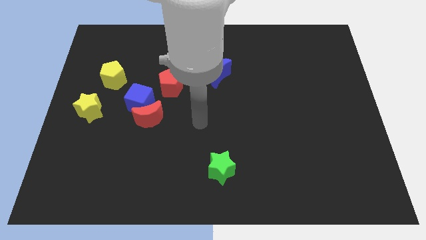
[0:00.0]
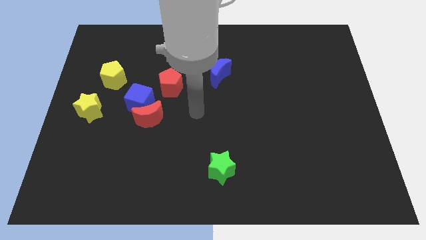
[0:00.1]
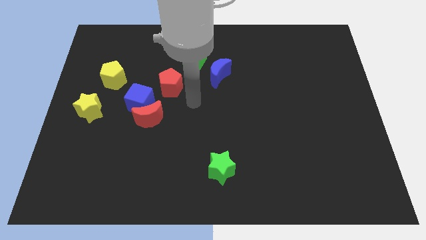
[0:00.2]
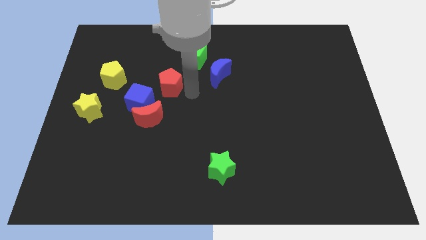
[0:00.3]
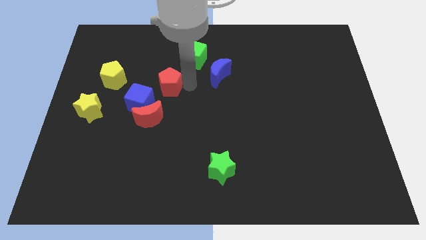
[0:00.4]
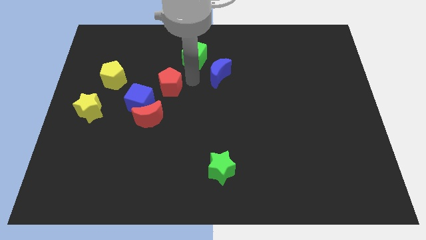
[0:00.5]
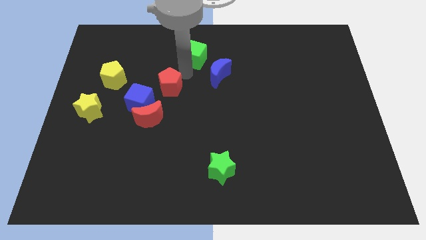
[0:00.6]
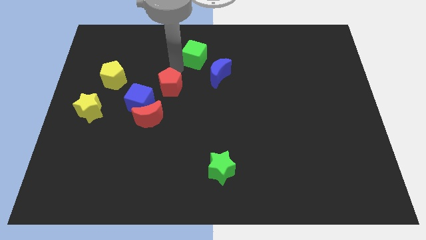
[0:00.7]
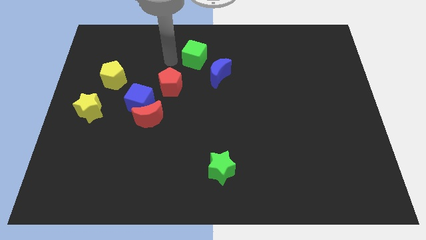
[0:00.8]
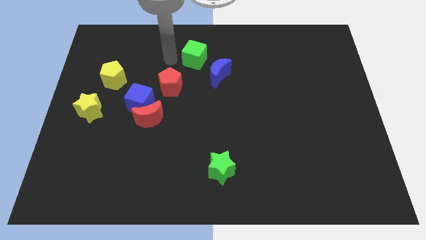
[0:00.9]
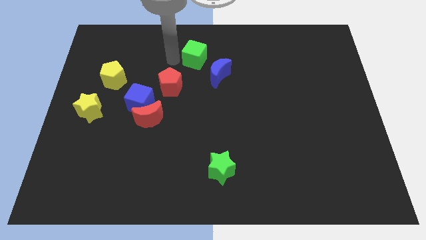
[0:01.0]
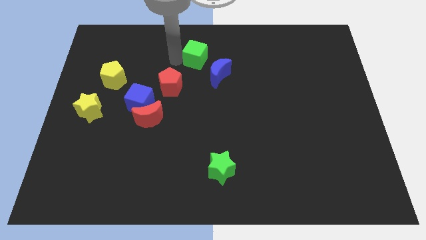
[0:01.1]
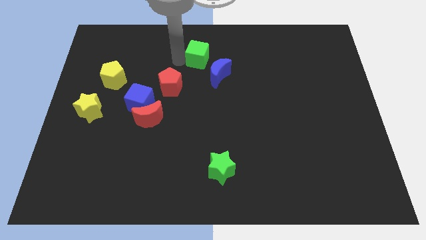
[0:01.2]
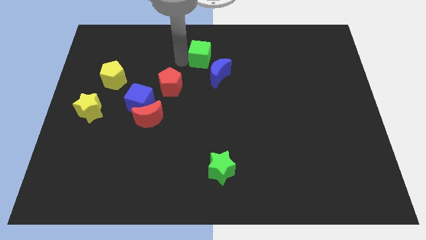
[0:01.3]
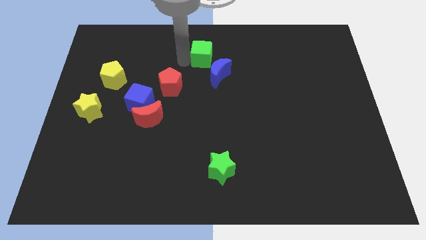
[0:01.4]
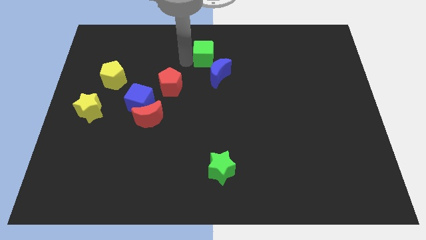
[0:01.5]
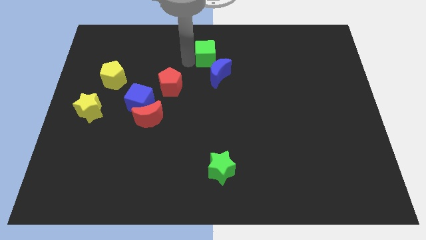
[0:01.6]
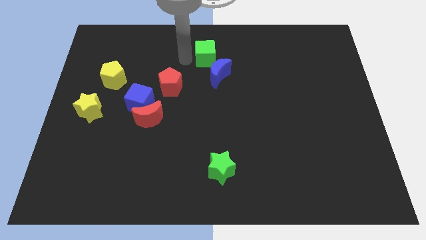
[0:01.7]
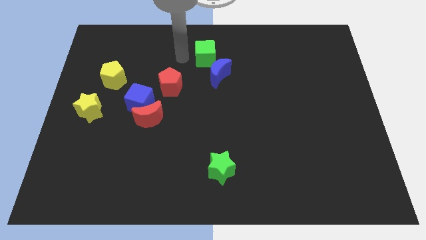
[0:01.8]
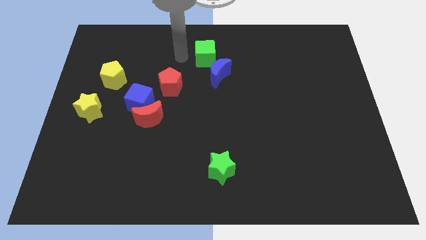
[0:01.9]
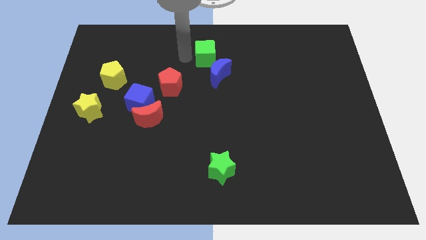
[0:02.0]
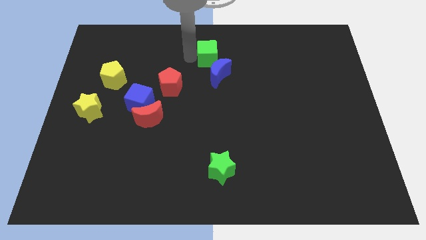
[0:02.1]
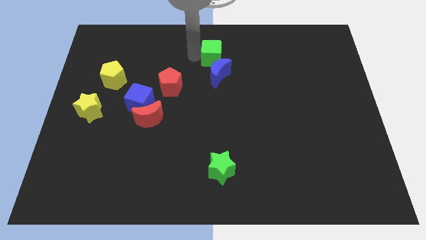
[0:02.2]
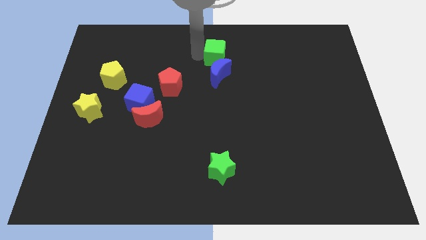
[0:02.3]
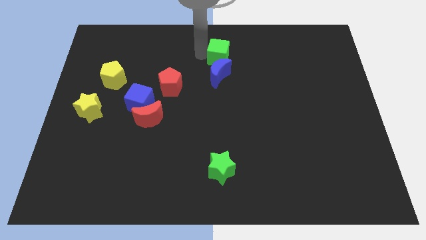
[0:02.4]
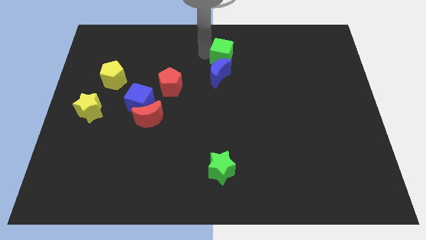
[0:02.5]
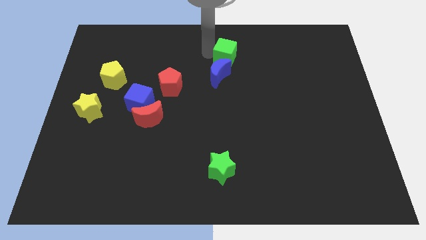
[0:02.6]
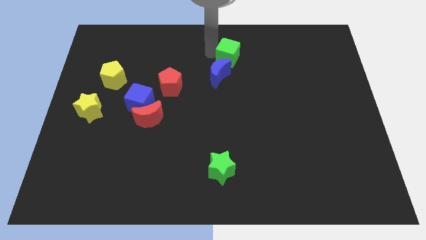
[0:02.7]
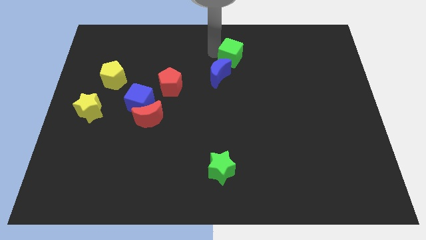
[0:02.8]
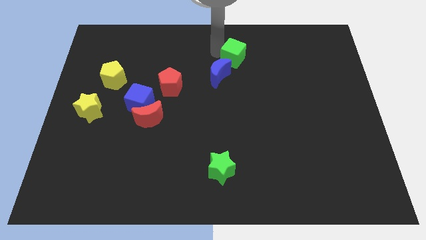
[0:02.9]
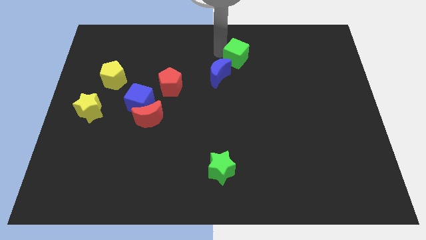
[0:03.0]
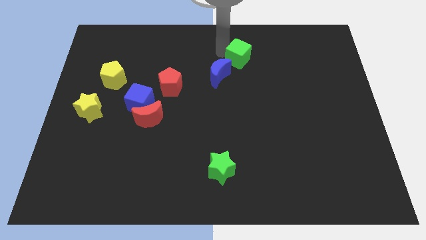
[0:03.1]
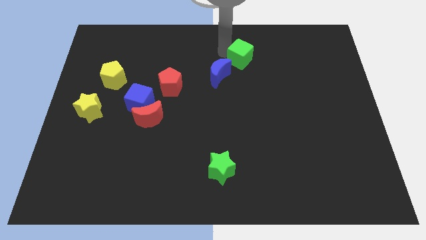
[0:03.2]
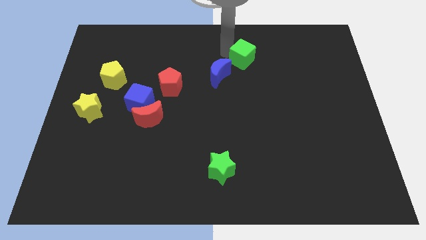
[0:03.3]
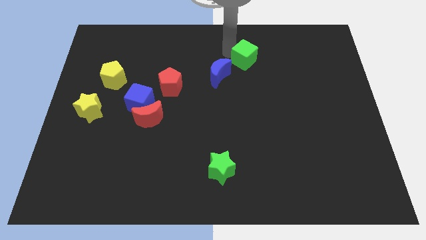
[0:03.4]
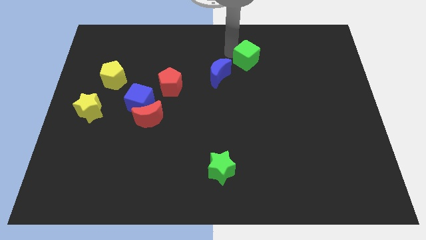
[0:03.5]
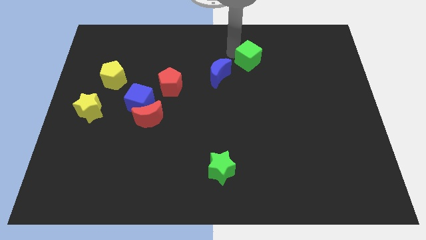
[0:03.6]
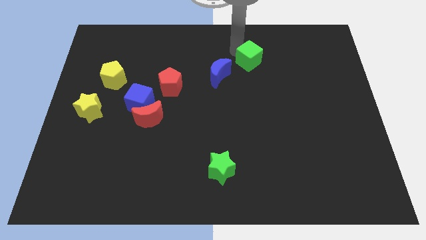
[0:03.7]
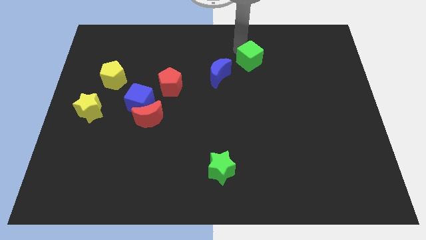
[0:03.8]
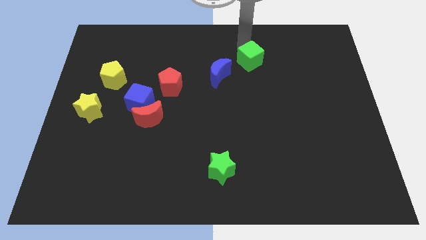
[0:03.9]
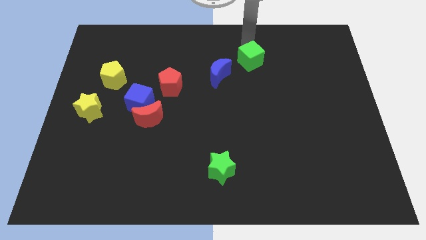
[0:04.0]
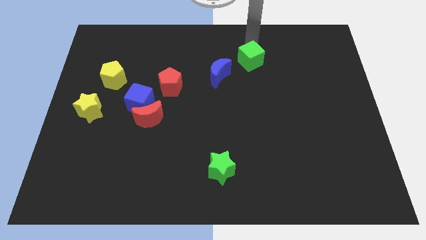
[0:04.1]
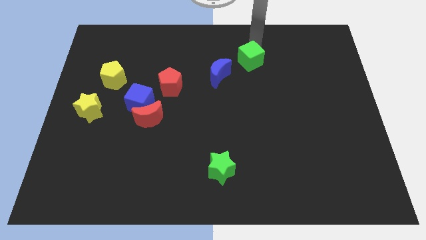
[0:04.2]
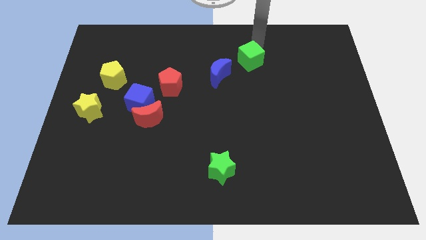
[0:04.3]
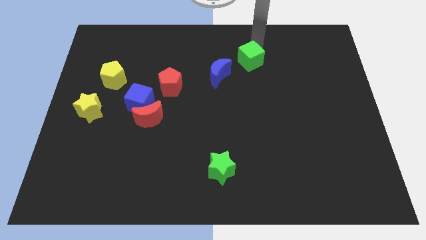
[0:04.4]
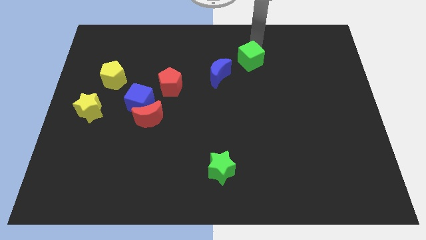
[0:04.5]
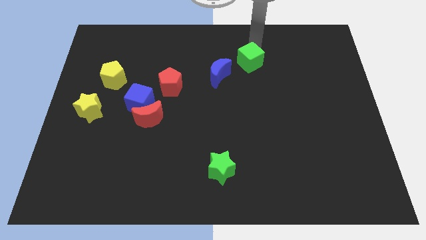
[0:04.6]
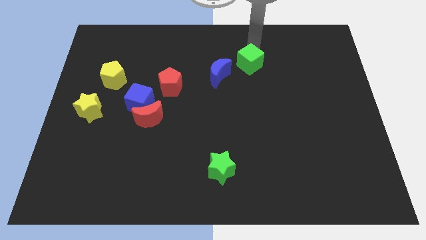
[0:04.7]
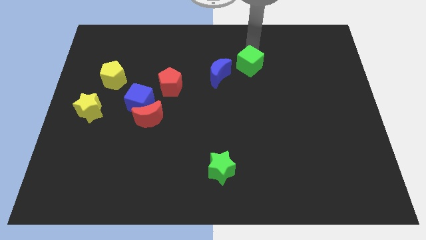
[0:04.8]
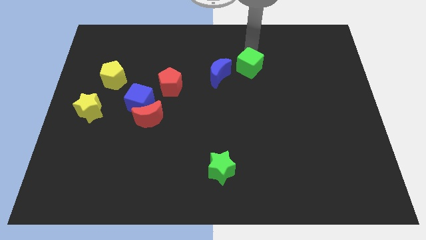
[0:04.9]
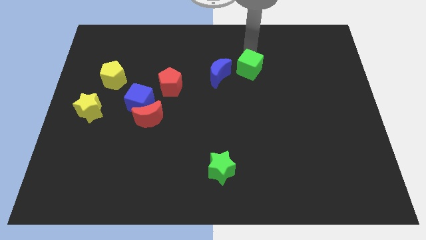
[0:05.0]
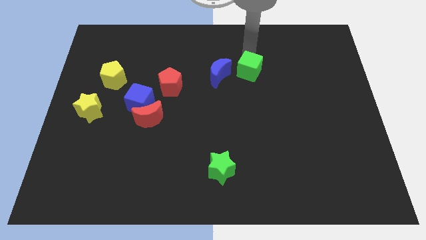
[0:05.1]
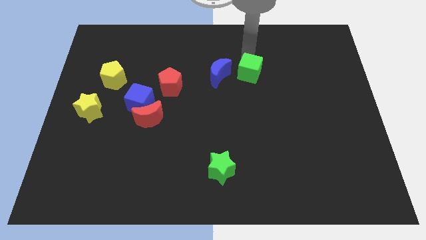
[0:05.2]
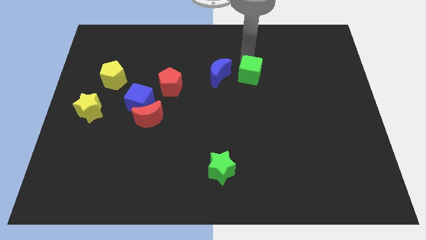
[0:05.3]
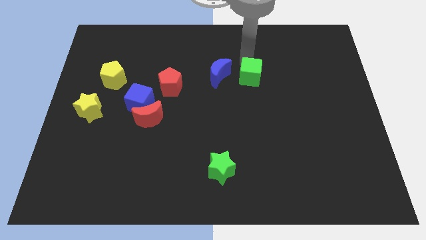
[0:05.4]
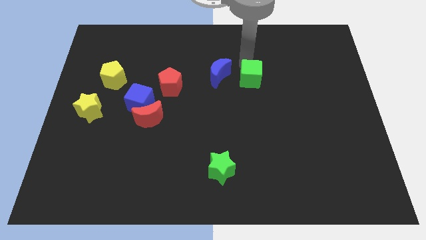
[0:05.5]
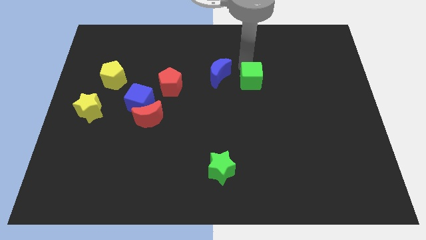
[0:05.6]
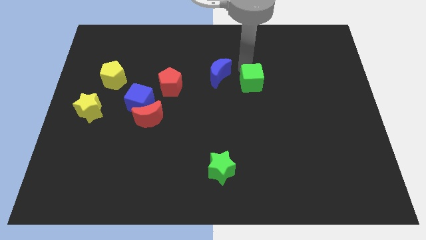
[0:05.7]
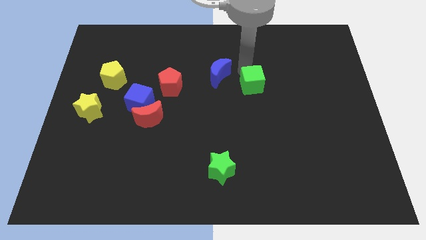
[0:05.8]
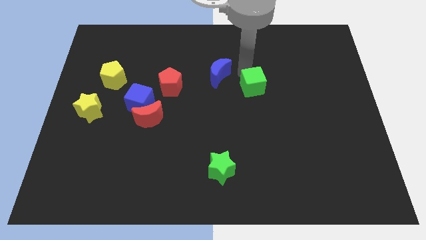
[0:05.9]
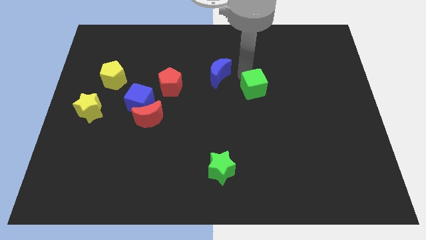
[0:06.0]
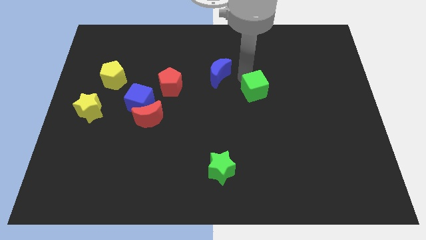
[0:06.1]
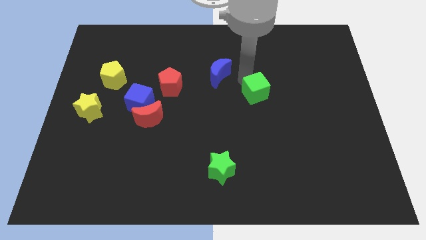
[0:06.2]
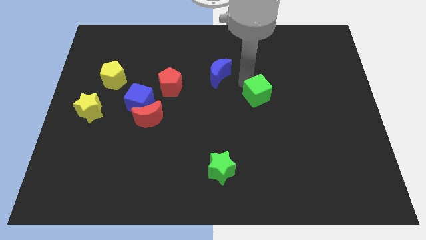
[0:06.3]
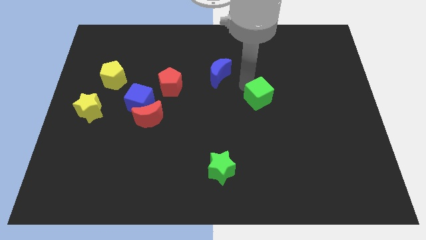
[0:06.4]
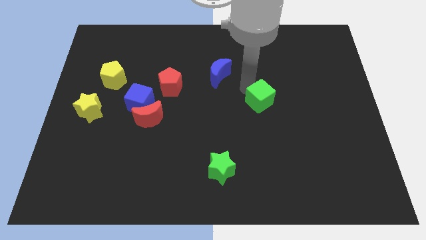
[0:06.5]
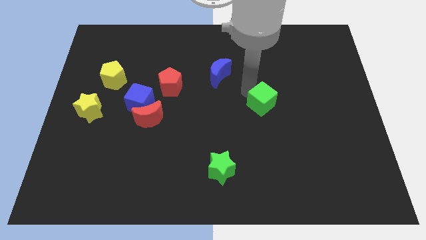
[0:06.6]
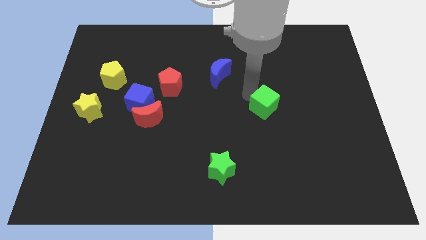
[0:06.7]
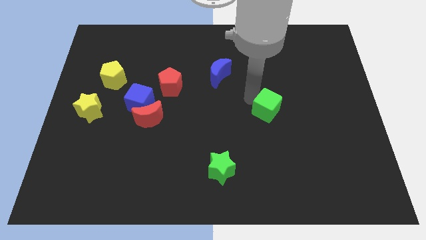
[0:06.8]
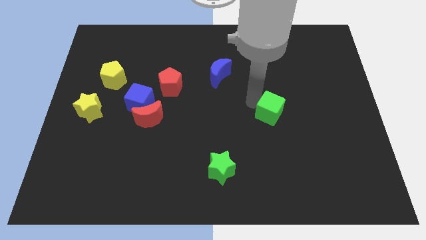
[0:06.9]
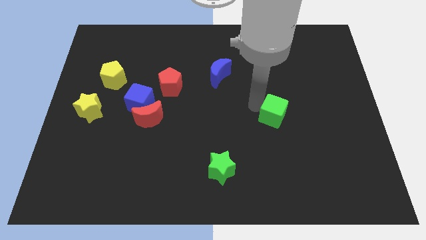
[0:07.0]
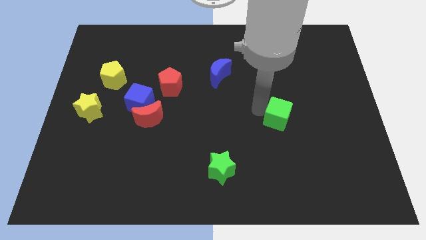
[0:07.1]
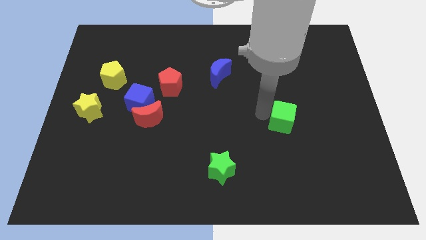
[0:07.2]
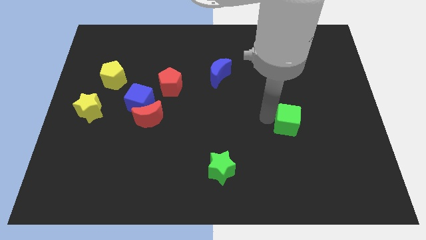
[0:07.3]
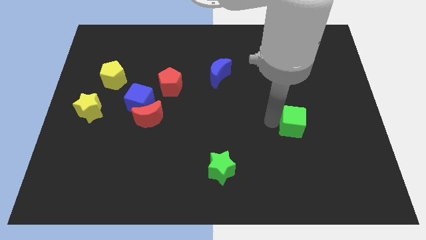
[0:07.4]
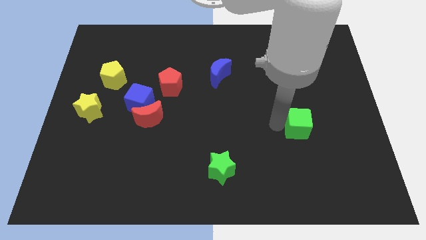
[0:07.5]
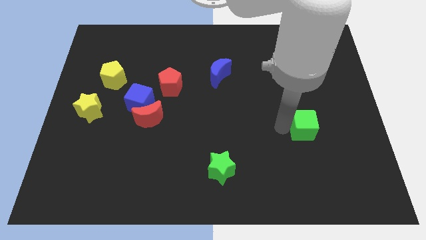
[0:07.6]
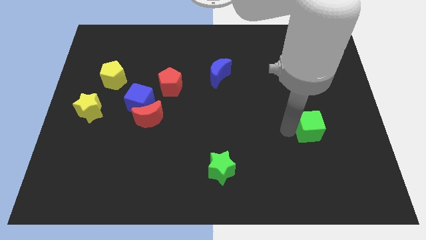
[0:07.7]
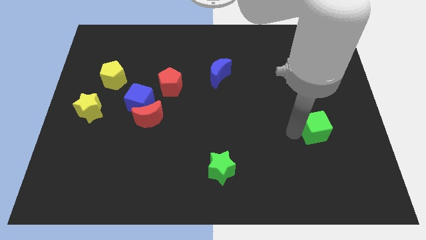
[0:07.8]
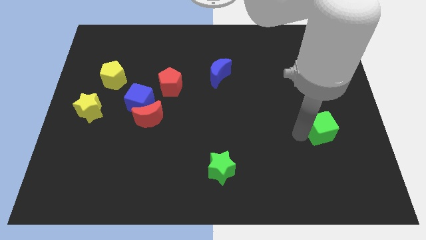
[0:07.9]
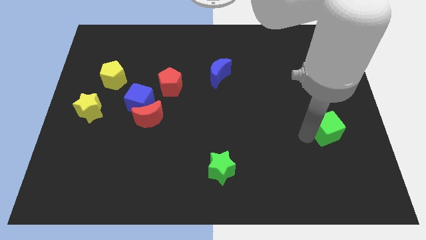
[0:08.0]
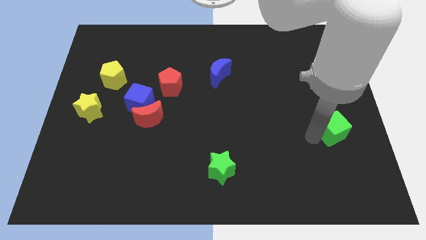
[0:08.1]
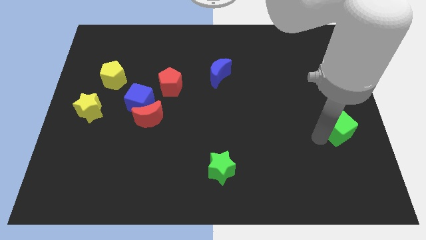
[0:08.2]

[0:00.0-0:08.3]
slide the green cube to the right side of the board
